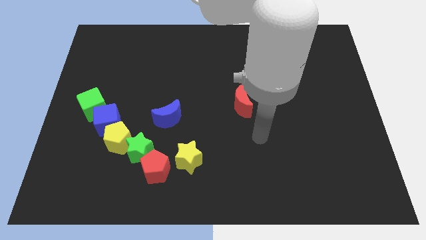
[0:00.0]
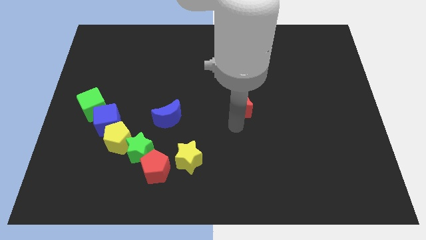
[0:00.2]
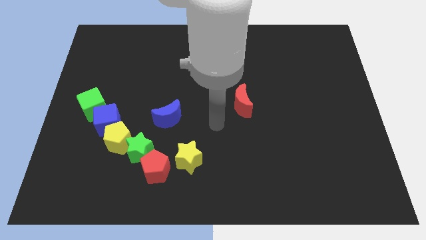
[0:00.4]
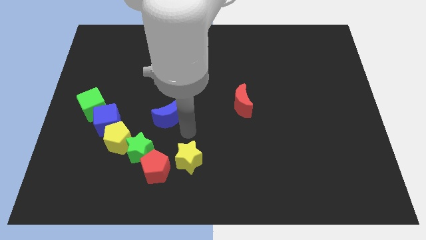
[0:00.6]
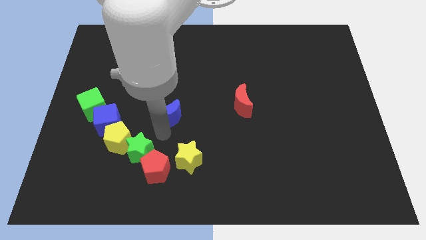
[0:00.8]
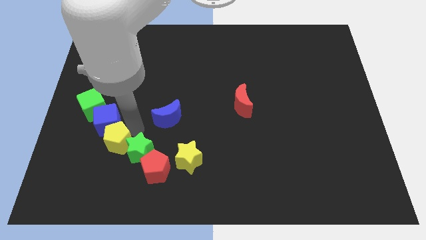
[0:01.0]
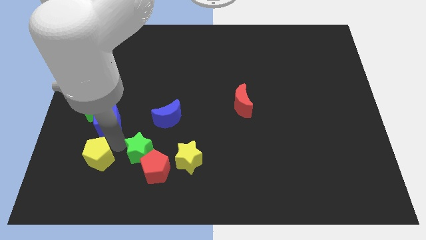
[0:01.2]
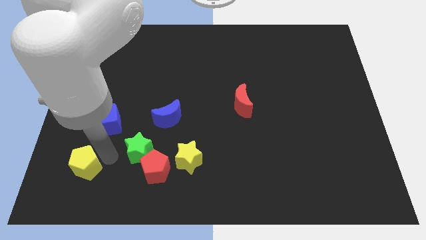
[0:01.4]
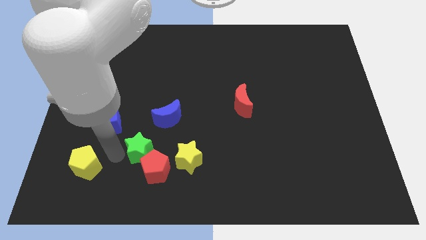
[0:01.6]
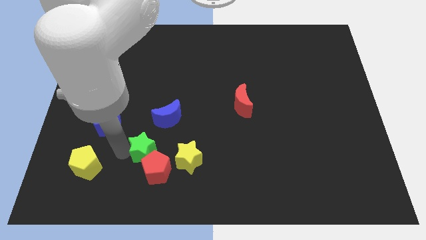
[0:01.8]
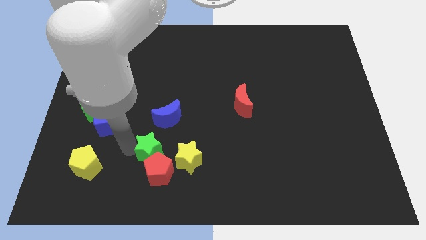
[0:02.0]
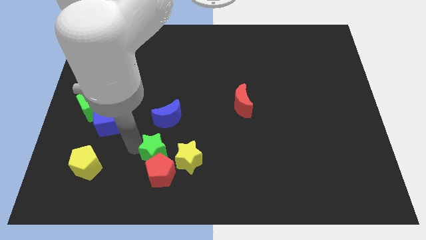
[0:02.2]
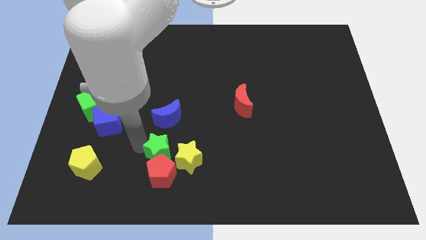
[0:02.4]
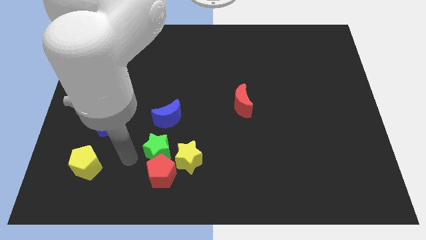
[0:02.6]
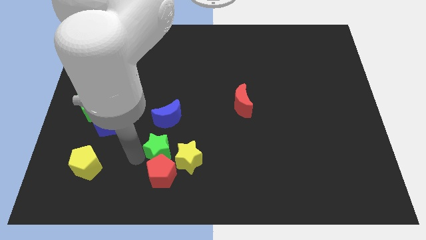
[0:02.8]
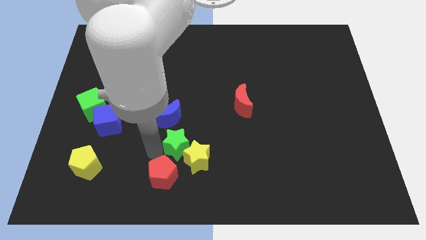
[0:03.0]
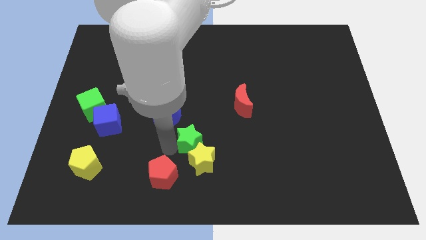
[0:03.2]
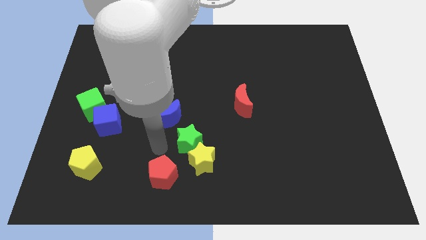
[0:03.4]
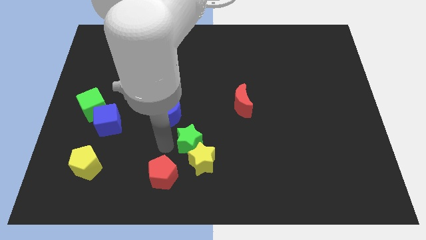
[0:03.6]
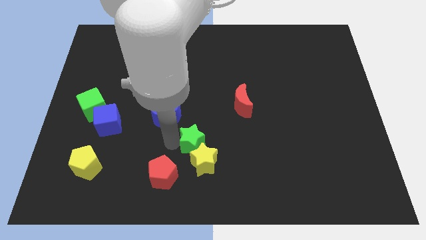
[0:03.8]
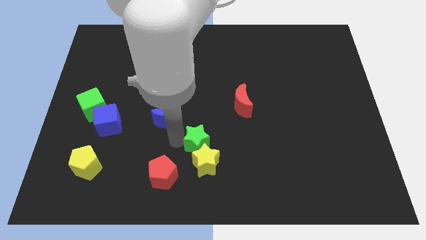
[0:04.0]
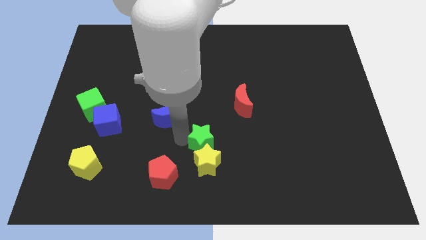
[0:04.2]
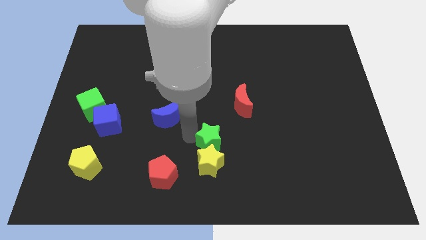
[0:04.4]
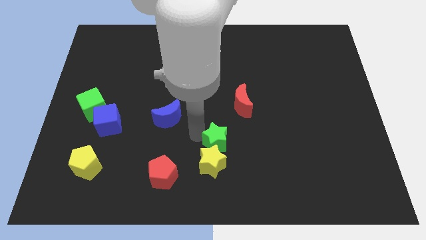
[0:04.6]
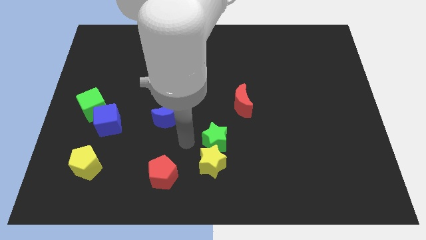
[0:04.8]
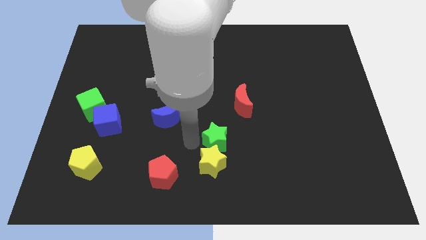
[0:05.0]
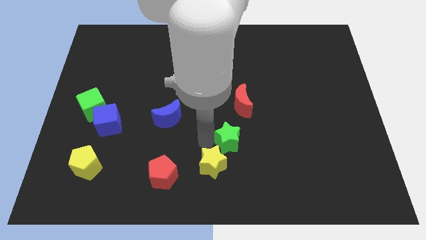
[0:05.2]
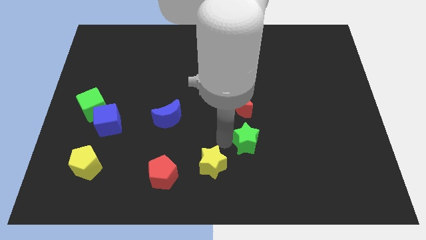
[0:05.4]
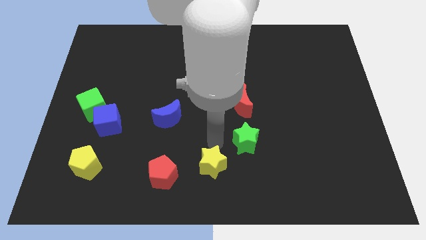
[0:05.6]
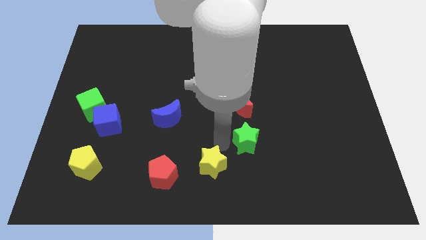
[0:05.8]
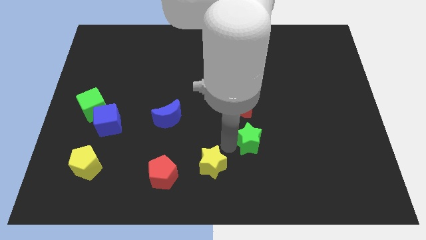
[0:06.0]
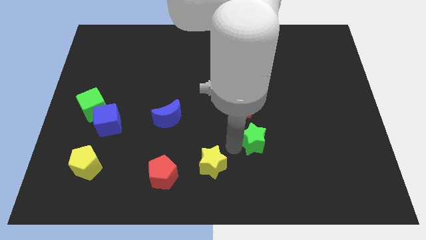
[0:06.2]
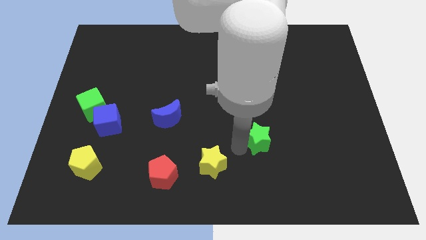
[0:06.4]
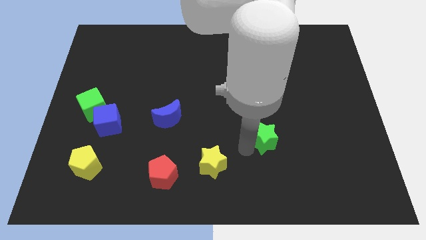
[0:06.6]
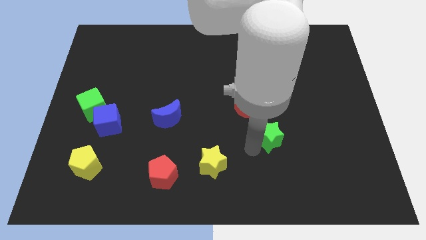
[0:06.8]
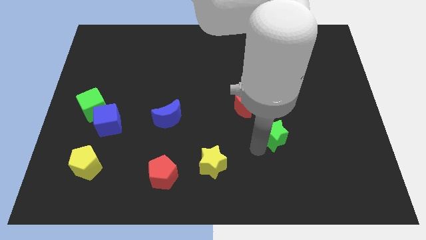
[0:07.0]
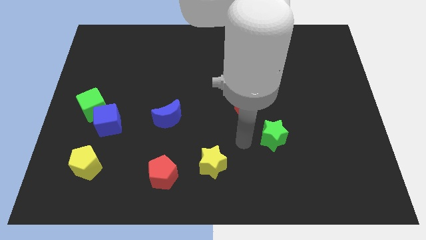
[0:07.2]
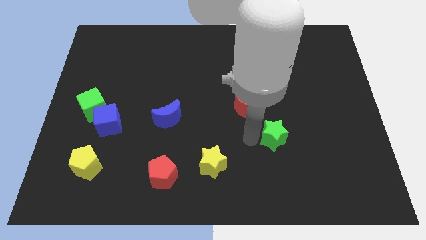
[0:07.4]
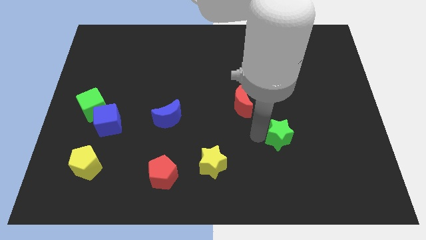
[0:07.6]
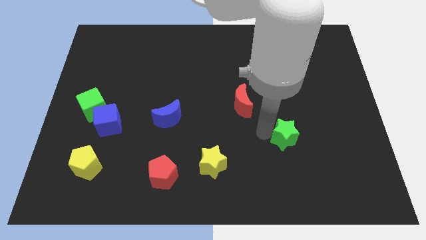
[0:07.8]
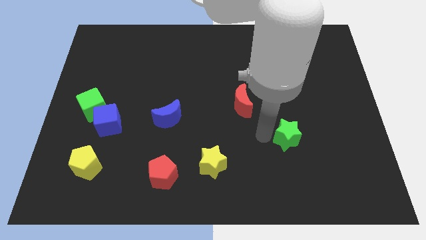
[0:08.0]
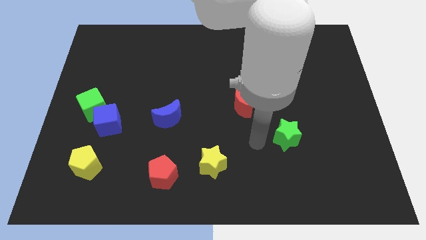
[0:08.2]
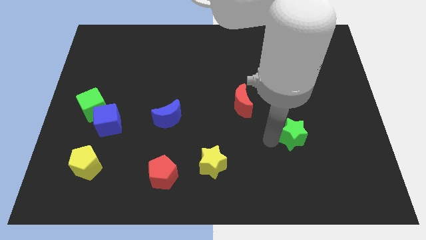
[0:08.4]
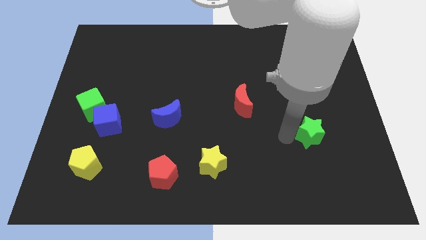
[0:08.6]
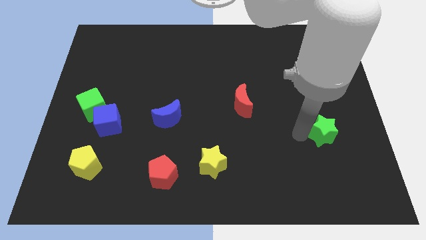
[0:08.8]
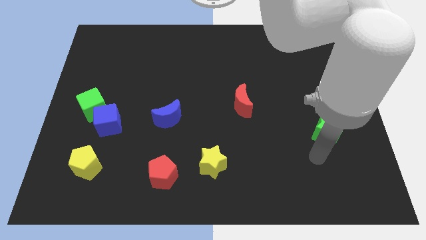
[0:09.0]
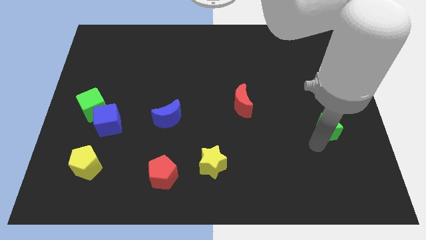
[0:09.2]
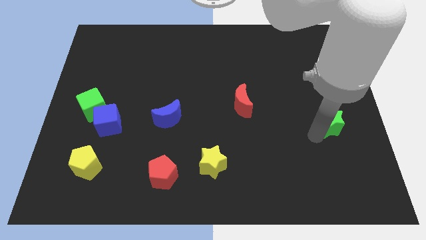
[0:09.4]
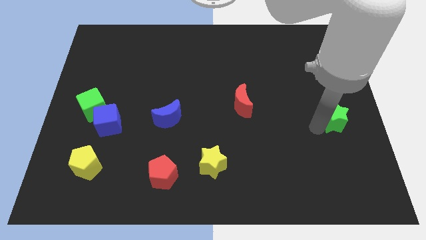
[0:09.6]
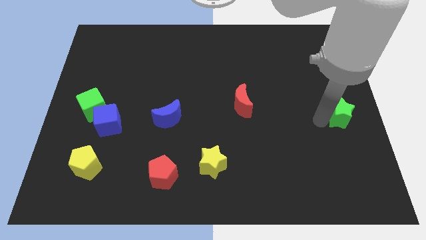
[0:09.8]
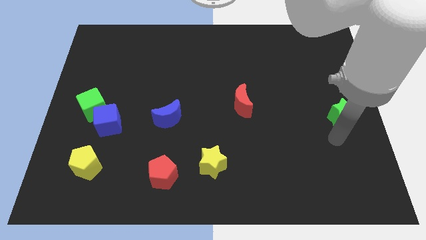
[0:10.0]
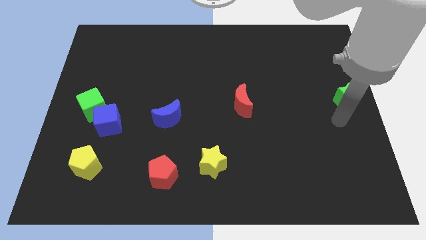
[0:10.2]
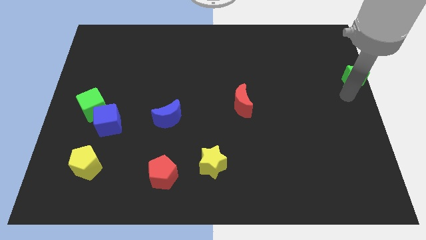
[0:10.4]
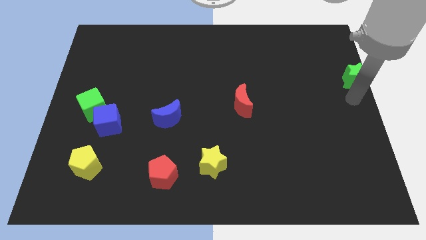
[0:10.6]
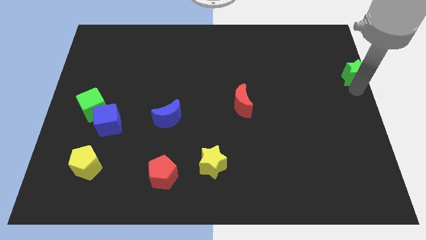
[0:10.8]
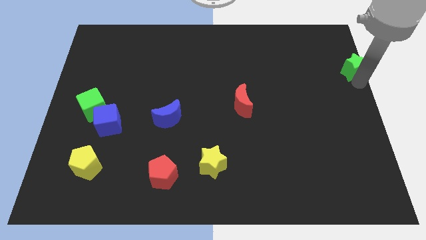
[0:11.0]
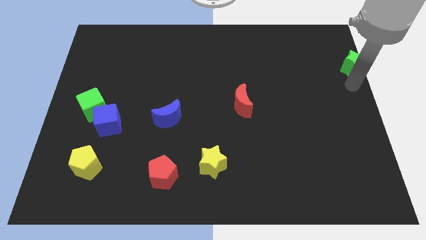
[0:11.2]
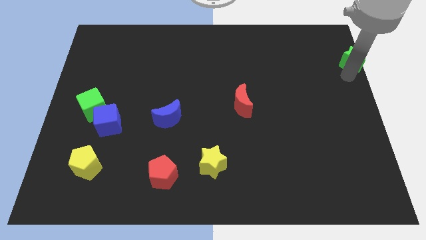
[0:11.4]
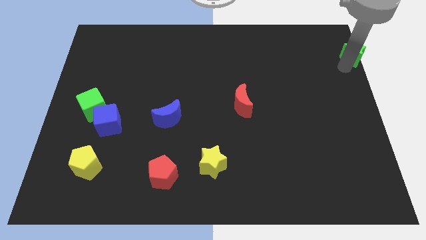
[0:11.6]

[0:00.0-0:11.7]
move the green star to the top right

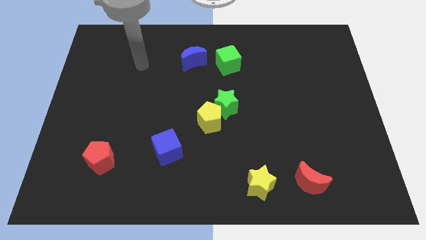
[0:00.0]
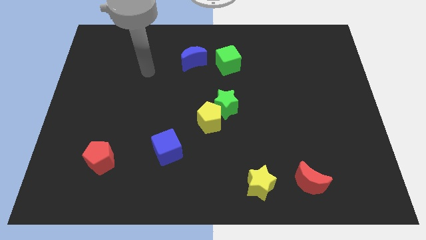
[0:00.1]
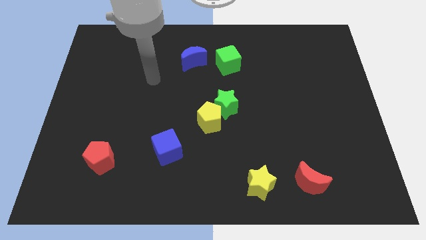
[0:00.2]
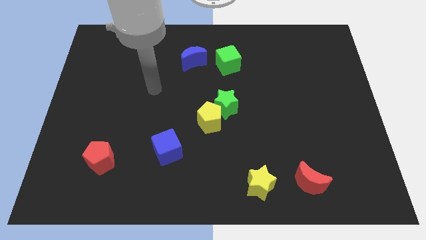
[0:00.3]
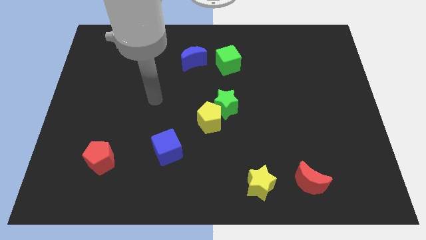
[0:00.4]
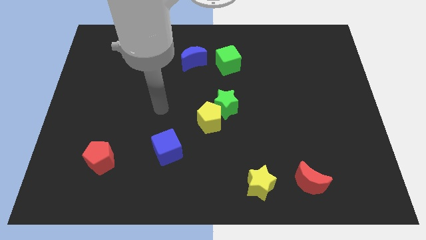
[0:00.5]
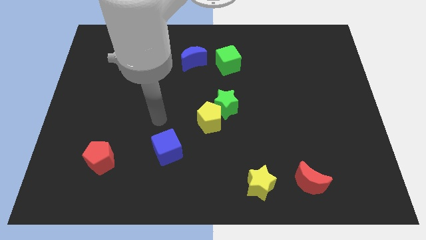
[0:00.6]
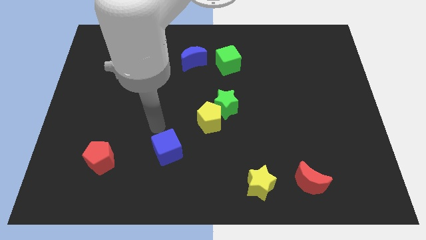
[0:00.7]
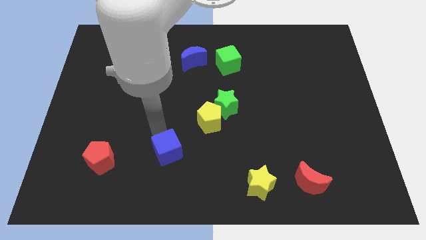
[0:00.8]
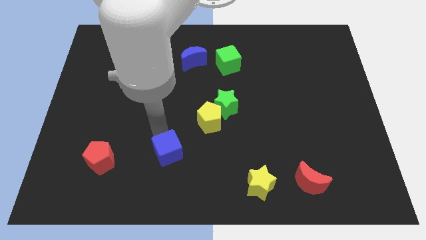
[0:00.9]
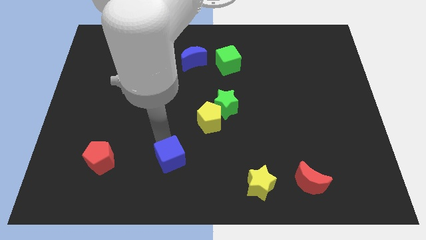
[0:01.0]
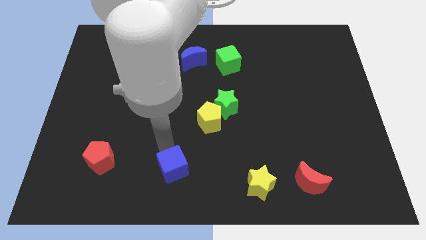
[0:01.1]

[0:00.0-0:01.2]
slide the blue cube to the bottom side
